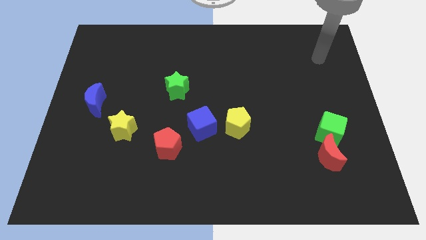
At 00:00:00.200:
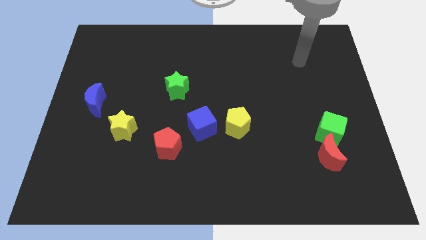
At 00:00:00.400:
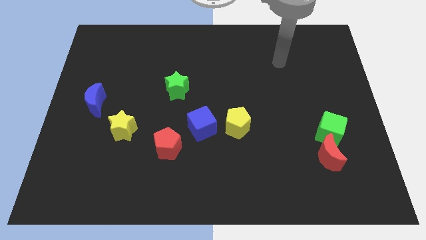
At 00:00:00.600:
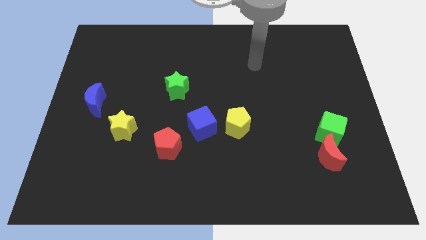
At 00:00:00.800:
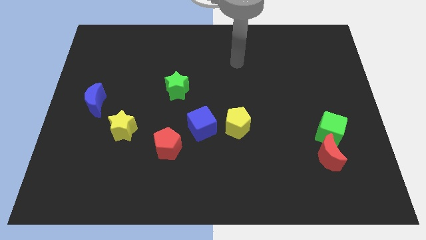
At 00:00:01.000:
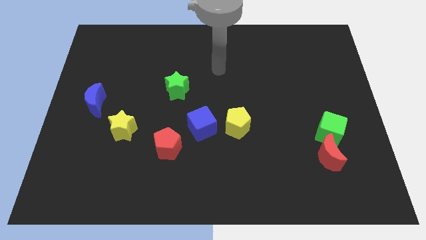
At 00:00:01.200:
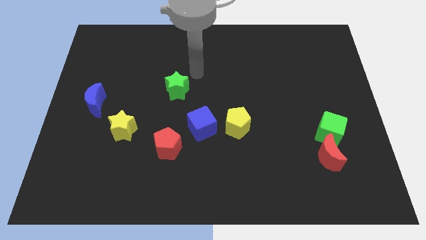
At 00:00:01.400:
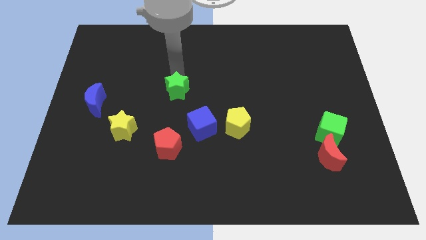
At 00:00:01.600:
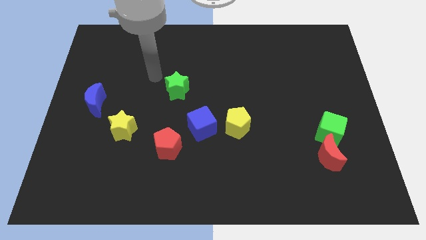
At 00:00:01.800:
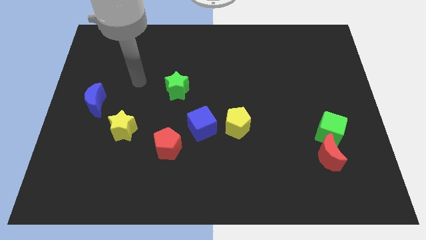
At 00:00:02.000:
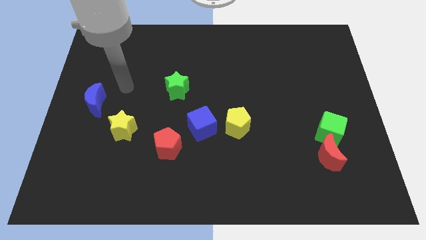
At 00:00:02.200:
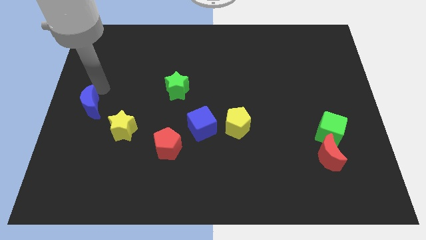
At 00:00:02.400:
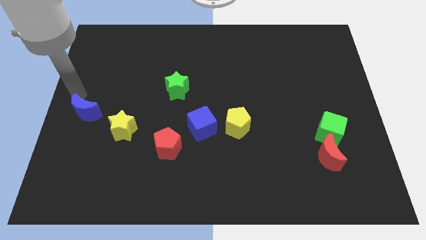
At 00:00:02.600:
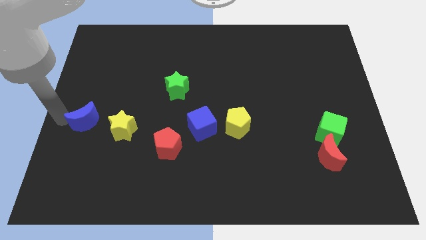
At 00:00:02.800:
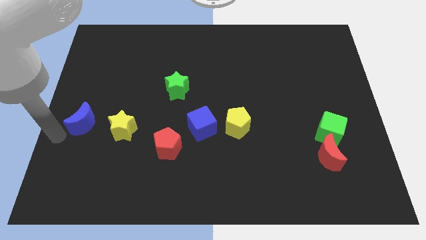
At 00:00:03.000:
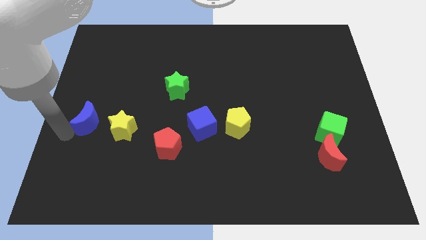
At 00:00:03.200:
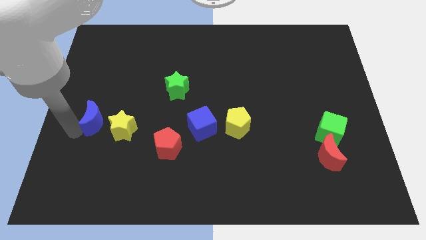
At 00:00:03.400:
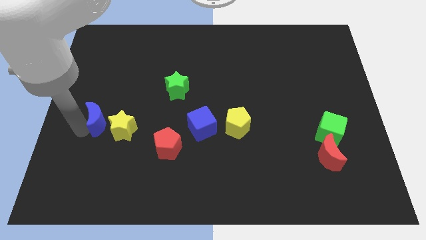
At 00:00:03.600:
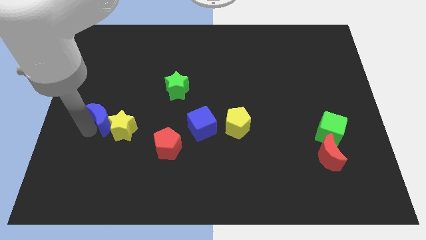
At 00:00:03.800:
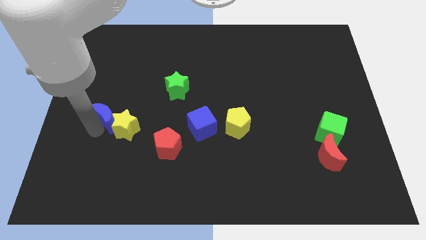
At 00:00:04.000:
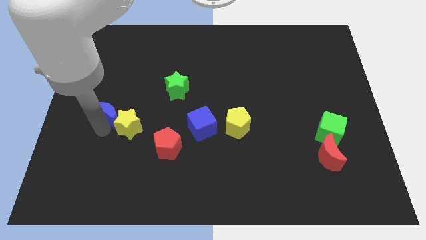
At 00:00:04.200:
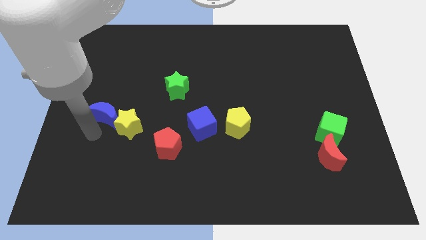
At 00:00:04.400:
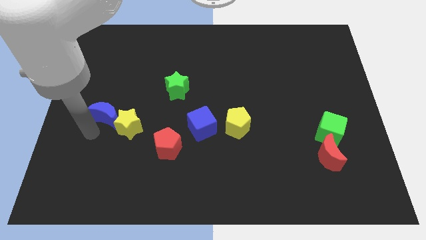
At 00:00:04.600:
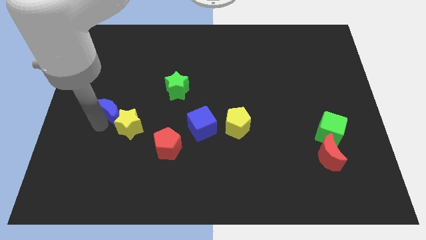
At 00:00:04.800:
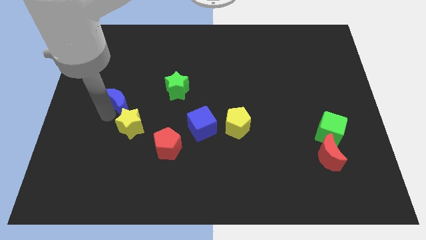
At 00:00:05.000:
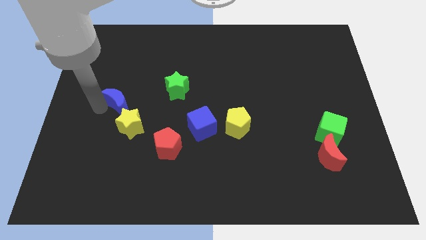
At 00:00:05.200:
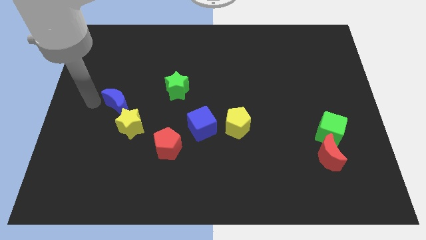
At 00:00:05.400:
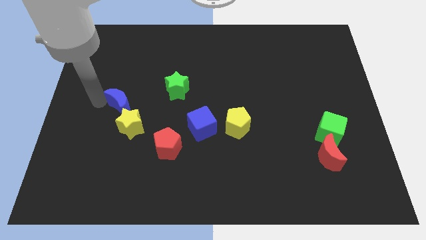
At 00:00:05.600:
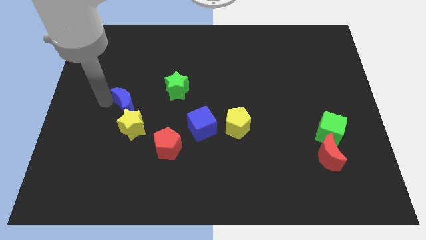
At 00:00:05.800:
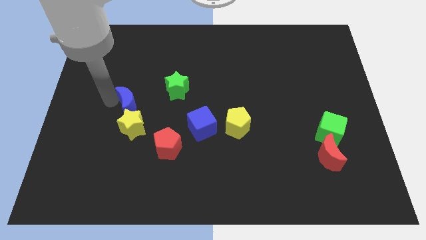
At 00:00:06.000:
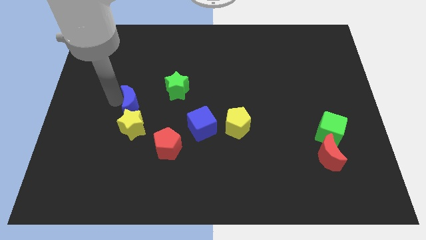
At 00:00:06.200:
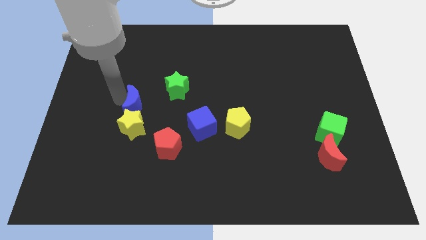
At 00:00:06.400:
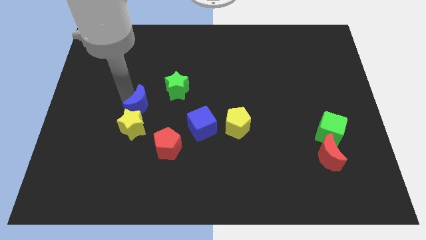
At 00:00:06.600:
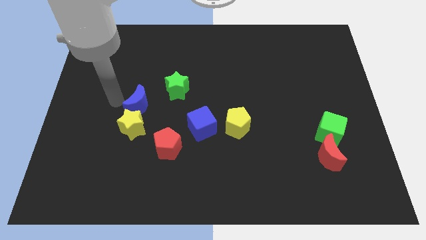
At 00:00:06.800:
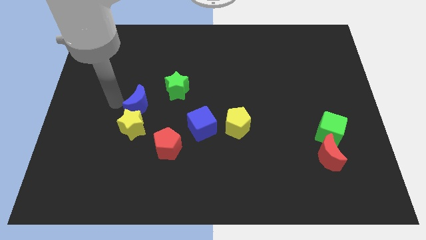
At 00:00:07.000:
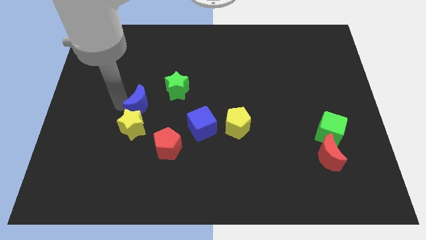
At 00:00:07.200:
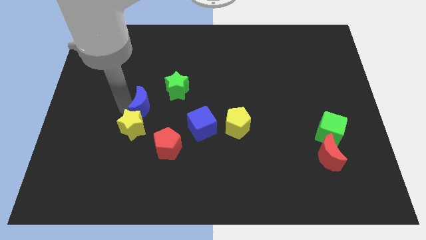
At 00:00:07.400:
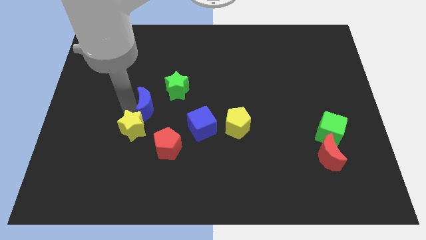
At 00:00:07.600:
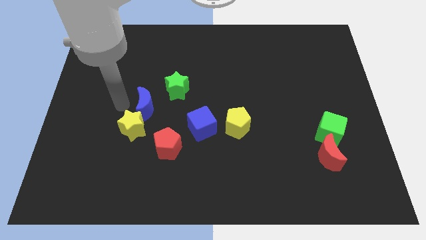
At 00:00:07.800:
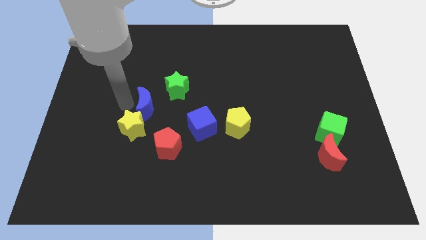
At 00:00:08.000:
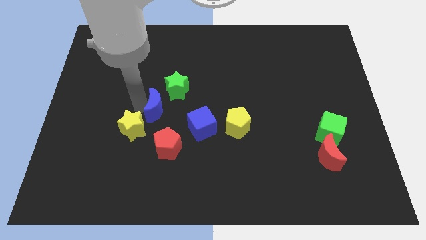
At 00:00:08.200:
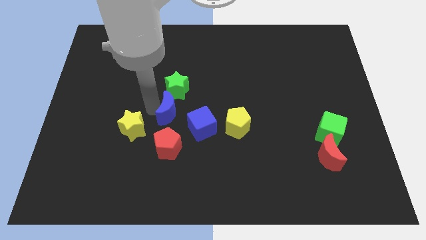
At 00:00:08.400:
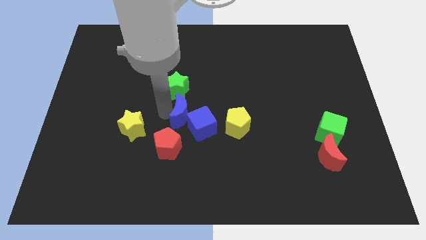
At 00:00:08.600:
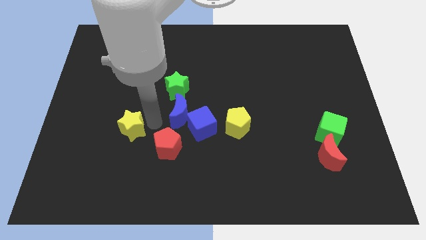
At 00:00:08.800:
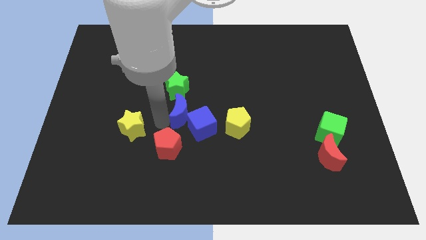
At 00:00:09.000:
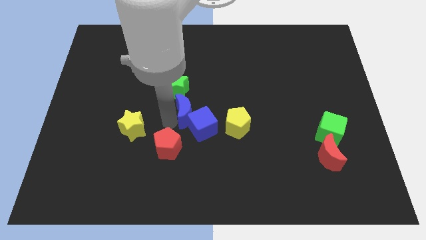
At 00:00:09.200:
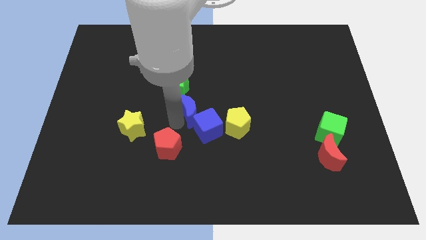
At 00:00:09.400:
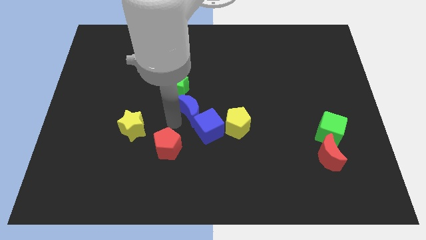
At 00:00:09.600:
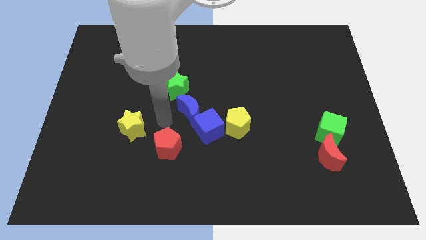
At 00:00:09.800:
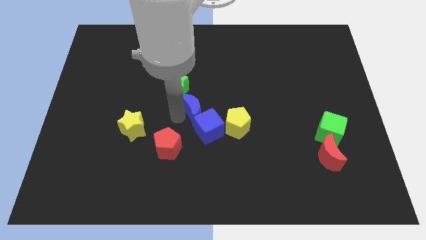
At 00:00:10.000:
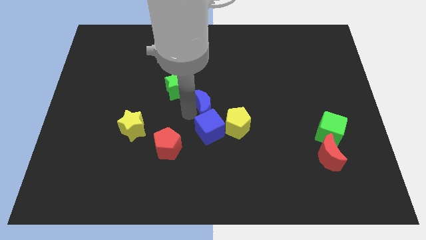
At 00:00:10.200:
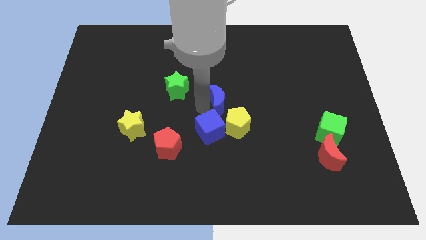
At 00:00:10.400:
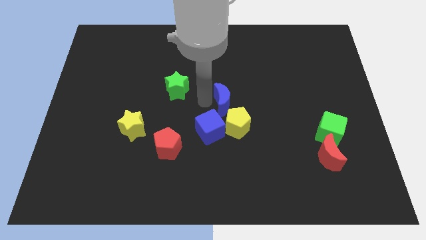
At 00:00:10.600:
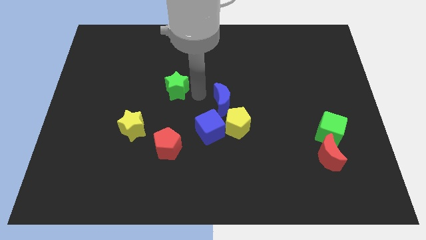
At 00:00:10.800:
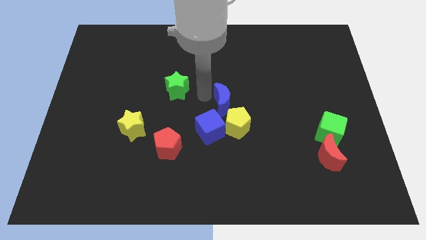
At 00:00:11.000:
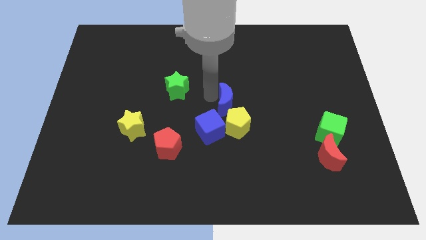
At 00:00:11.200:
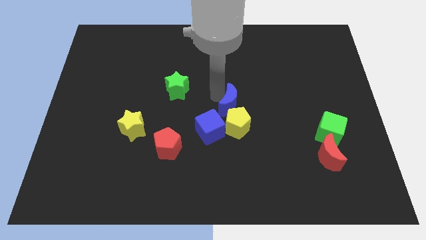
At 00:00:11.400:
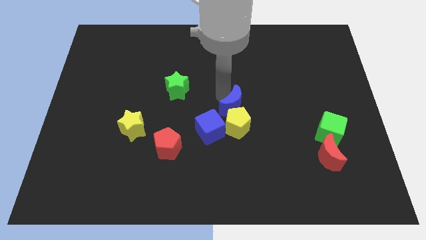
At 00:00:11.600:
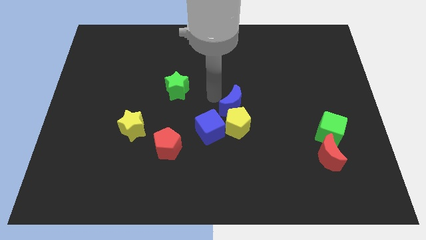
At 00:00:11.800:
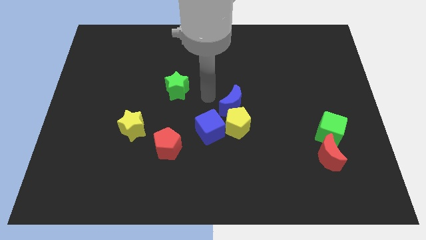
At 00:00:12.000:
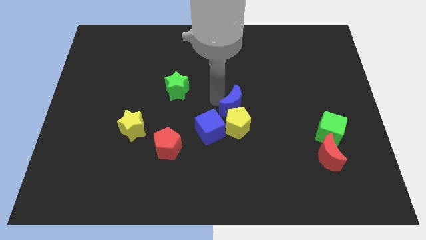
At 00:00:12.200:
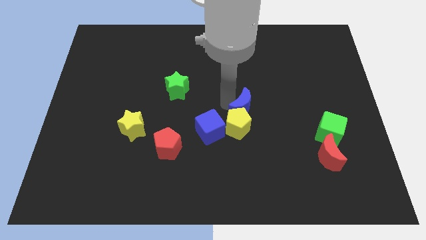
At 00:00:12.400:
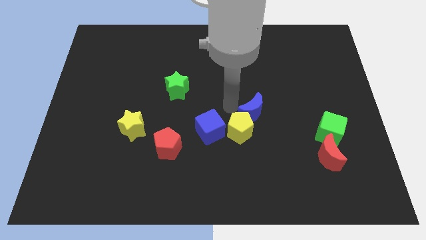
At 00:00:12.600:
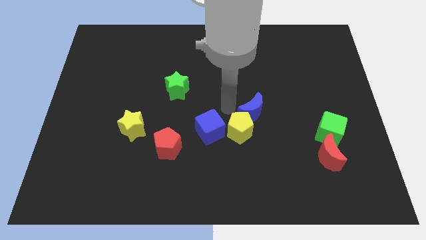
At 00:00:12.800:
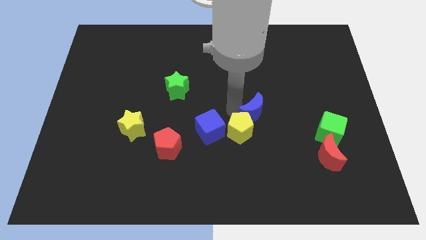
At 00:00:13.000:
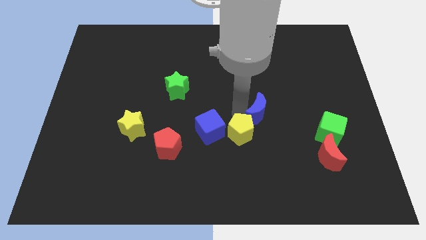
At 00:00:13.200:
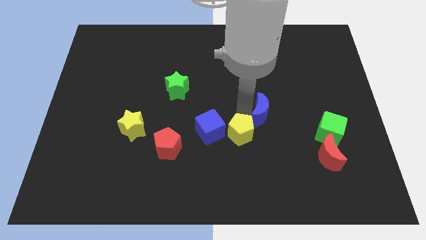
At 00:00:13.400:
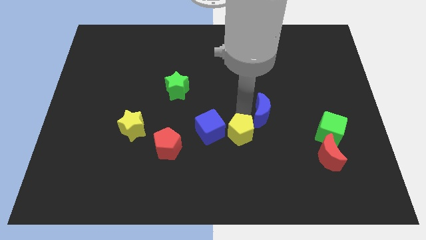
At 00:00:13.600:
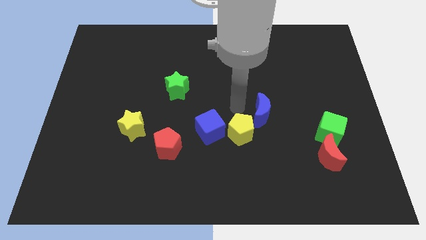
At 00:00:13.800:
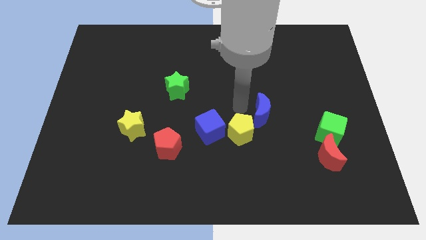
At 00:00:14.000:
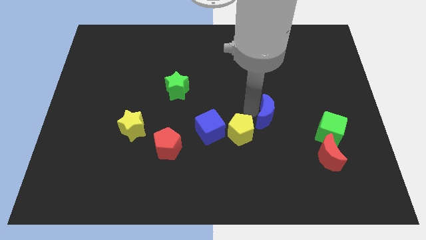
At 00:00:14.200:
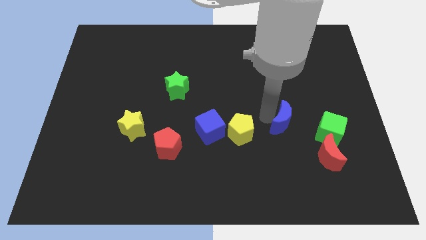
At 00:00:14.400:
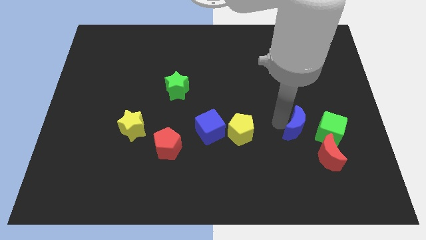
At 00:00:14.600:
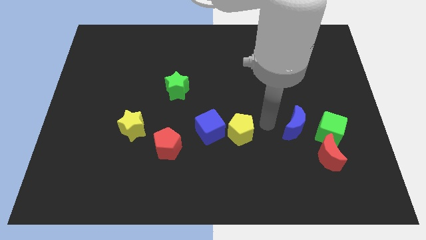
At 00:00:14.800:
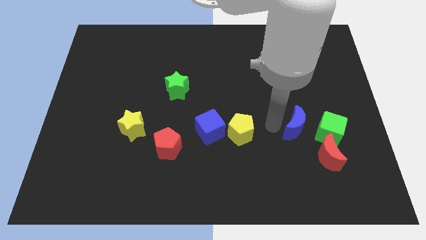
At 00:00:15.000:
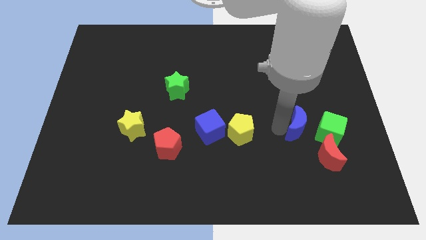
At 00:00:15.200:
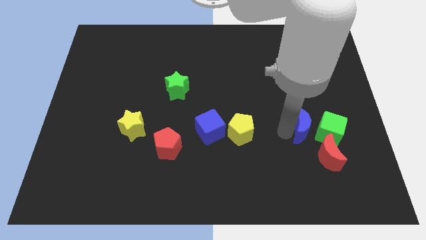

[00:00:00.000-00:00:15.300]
put the blue moon next to the green cube
